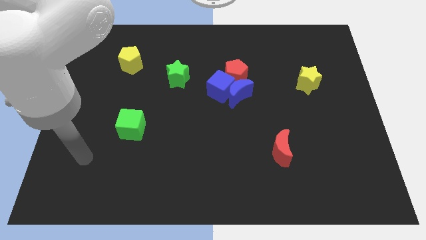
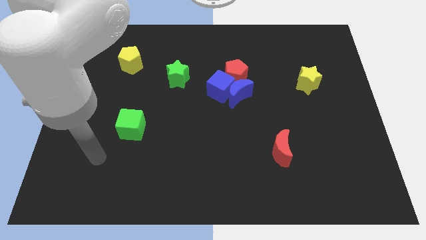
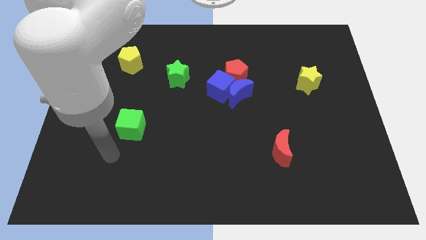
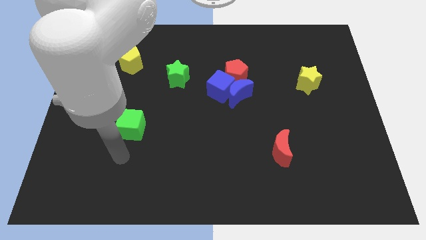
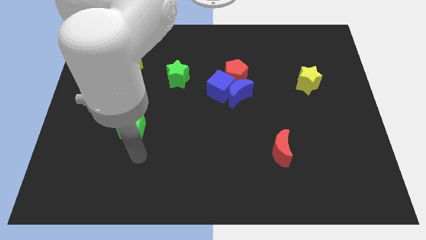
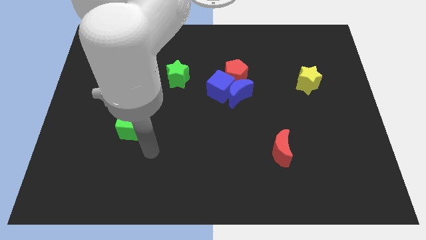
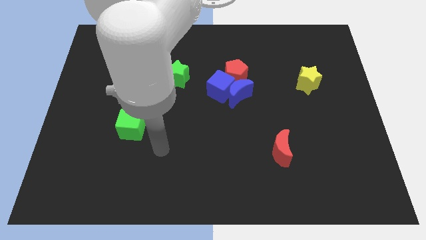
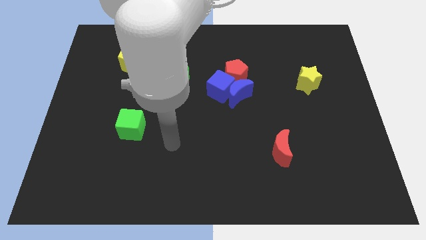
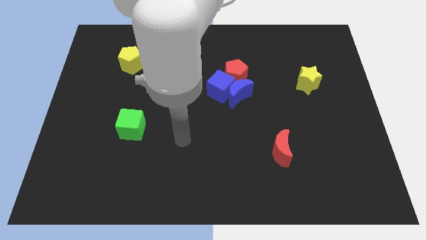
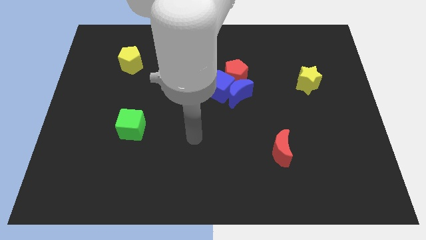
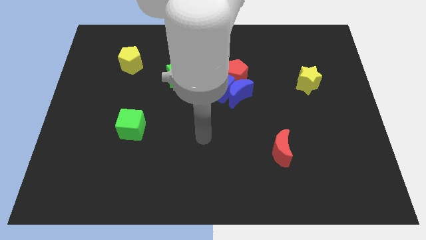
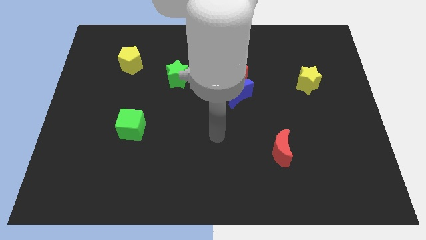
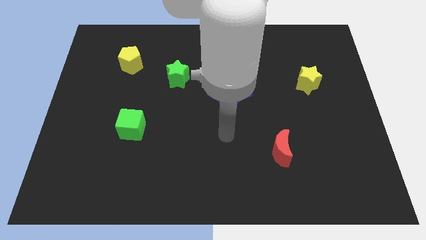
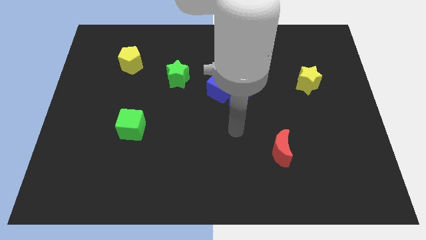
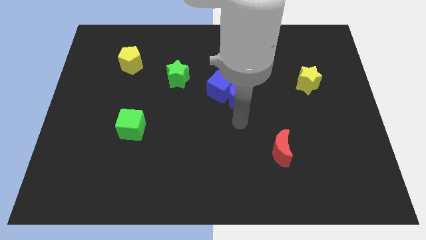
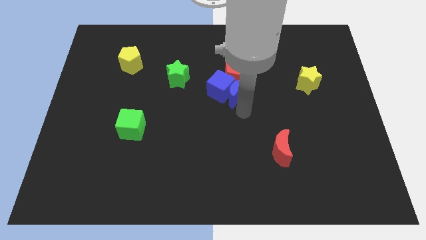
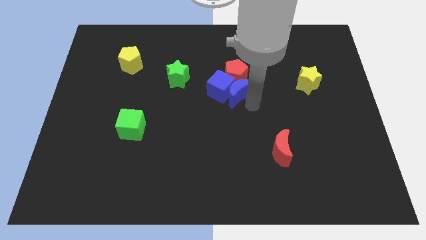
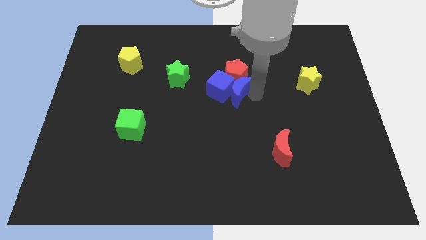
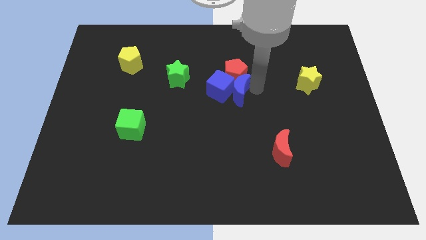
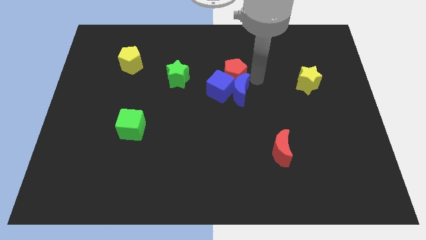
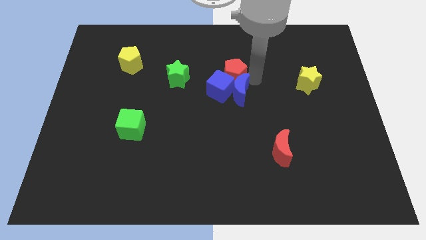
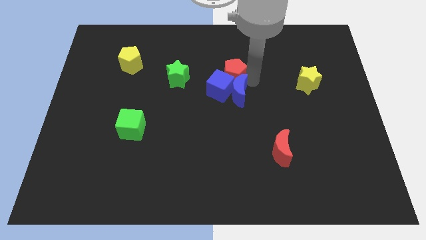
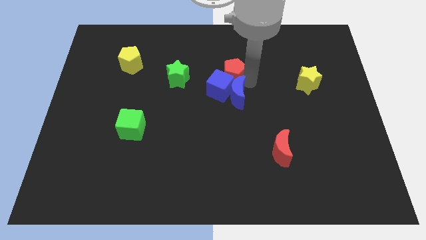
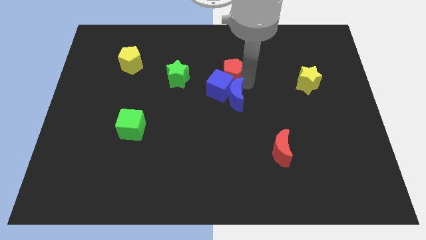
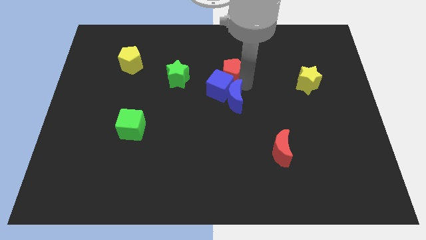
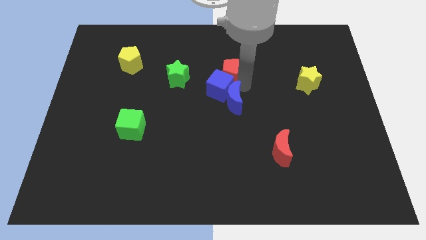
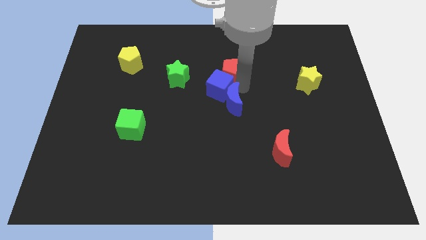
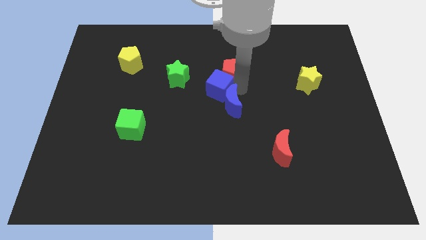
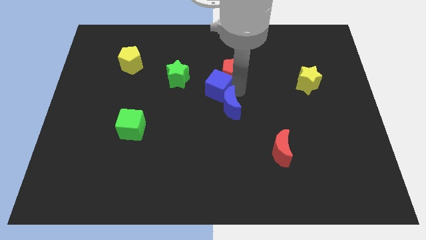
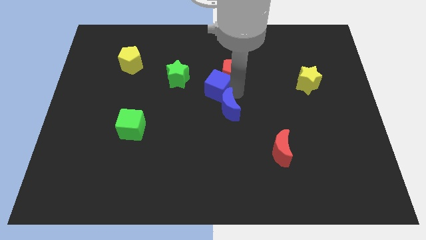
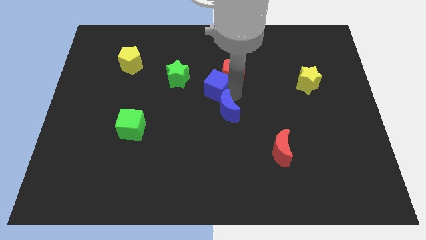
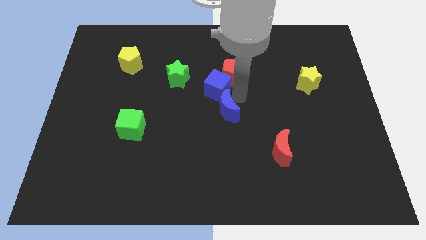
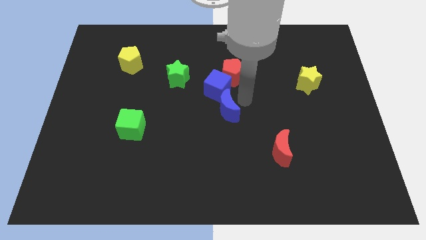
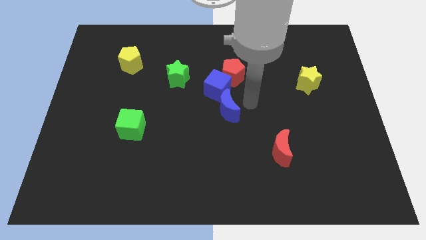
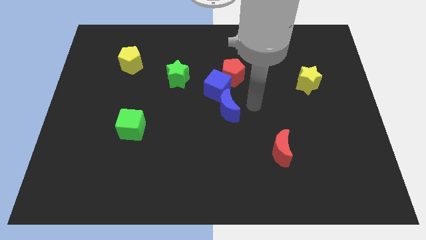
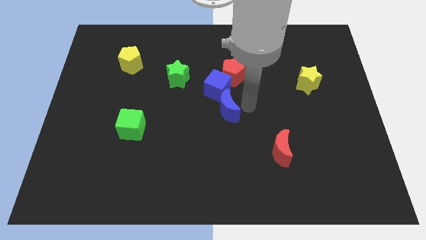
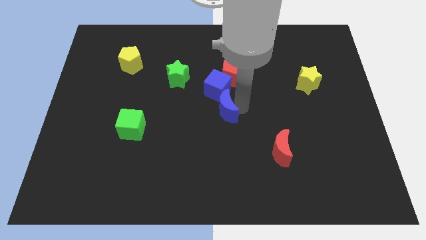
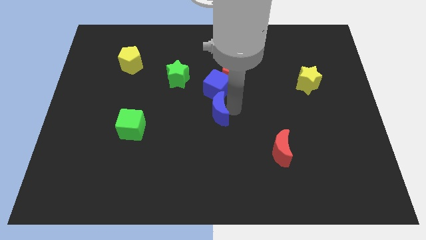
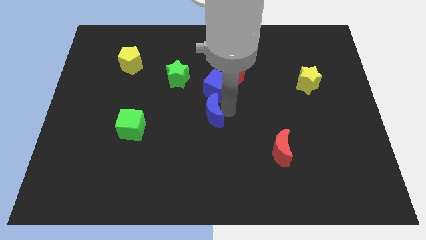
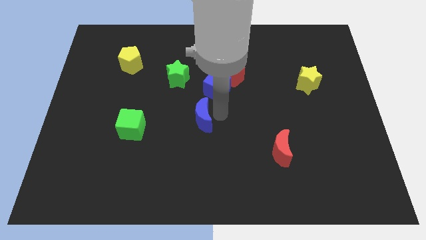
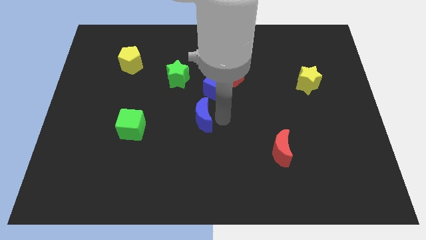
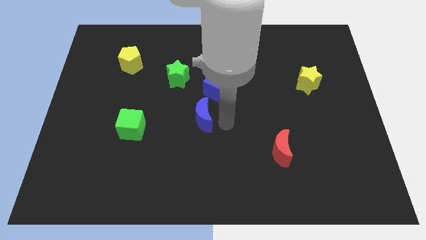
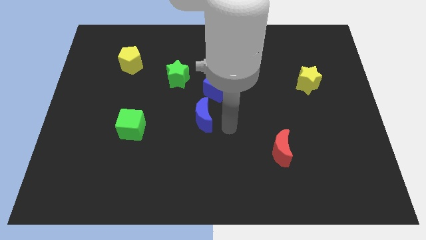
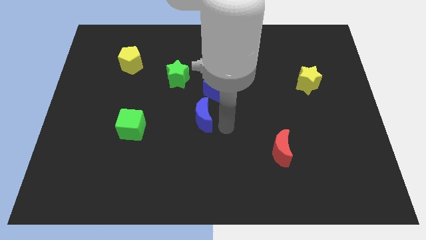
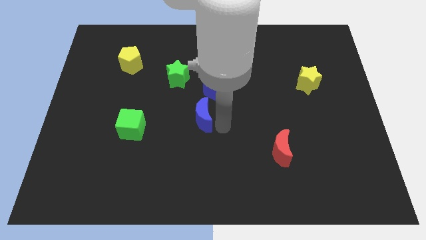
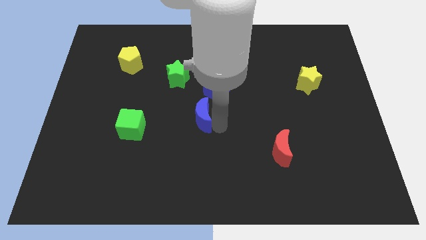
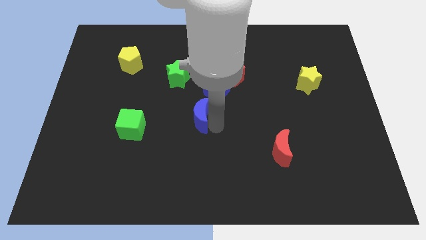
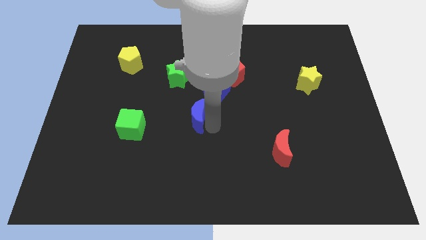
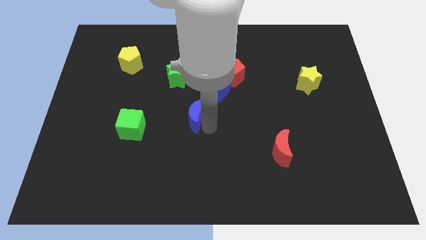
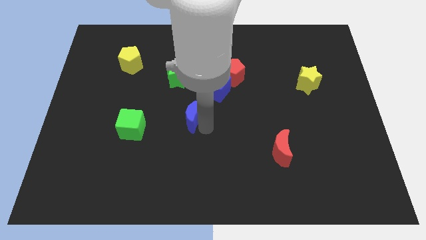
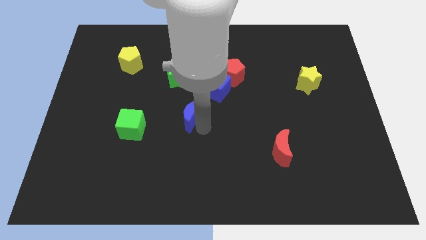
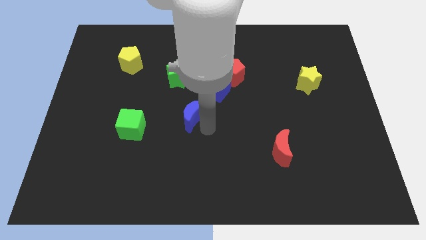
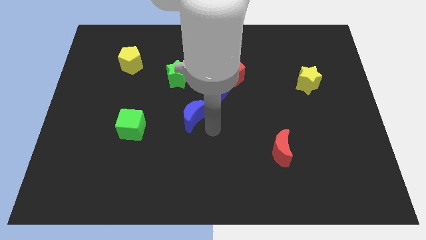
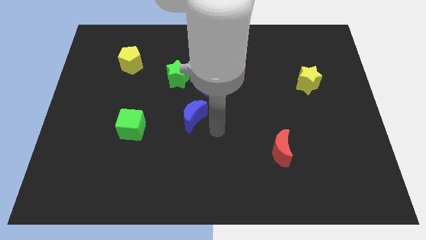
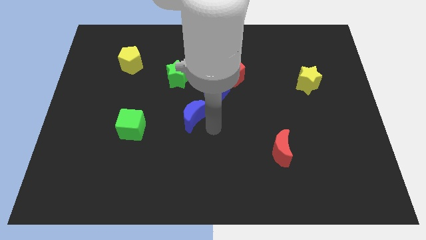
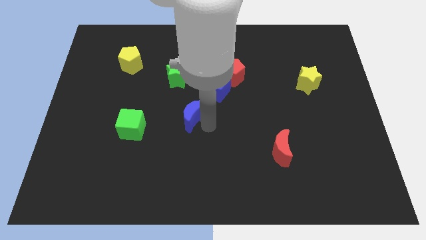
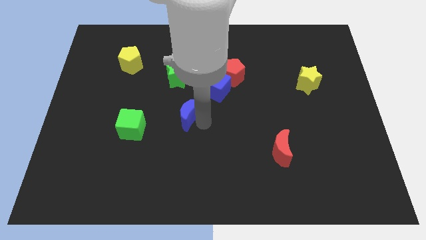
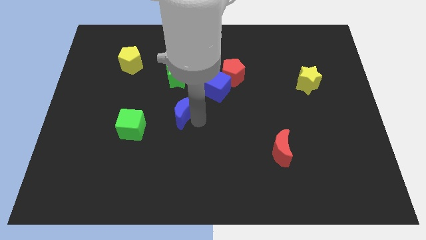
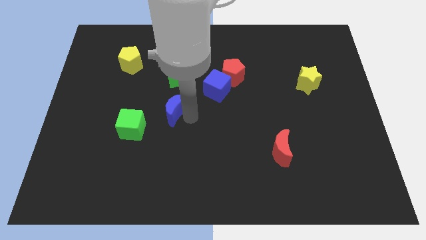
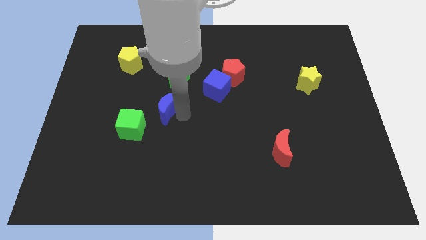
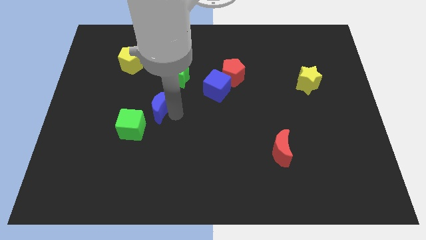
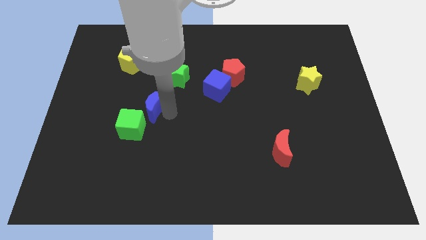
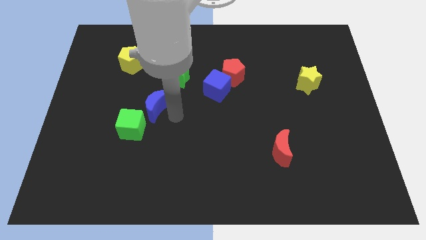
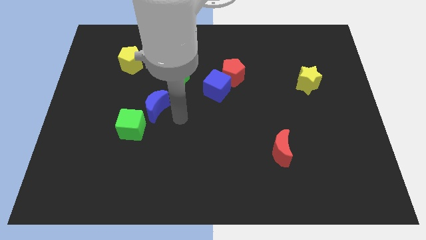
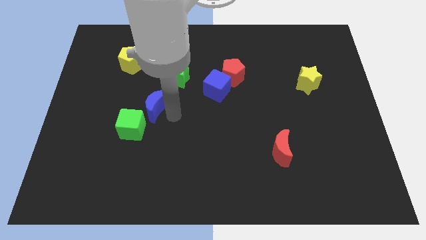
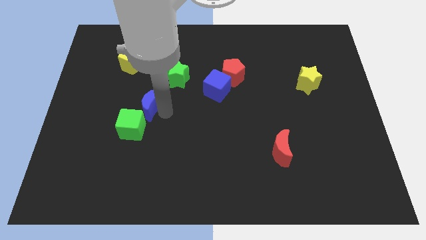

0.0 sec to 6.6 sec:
slide the blue moon left

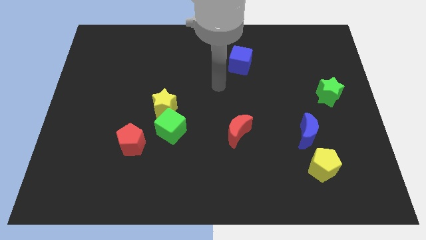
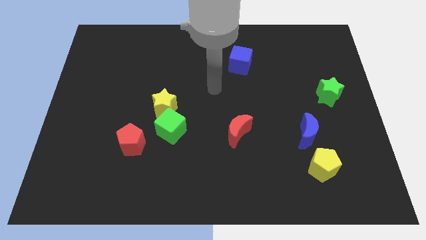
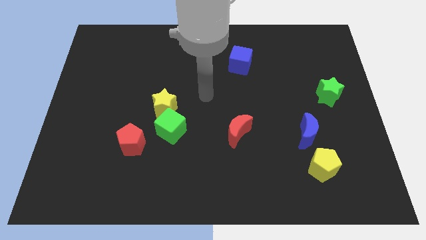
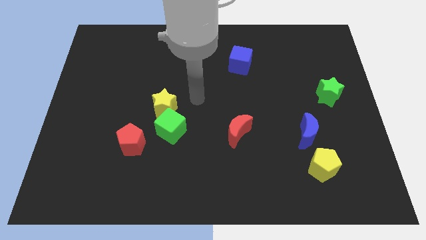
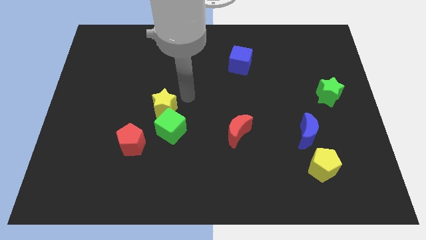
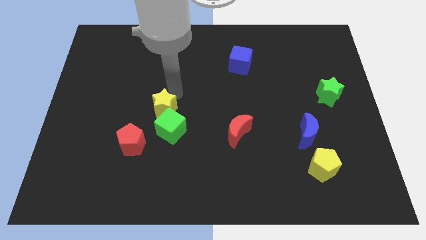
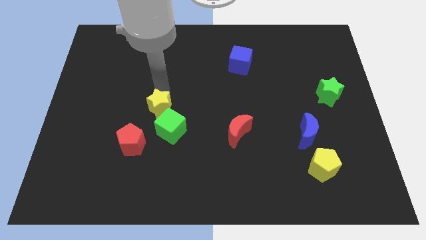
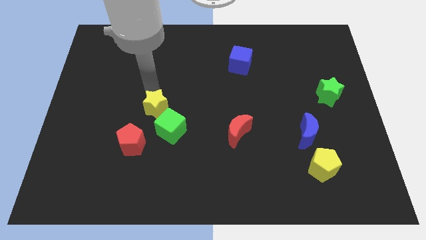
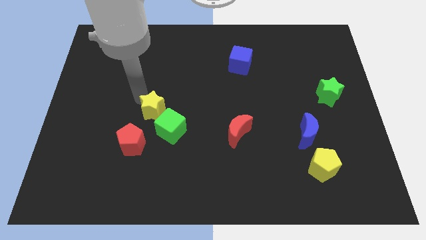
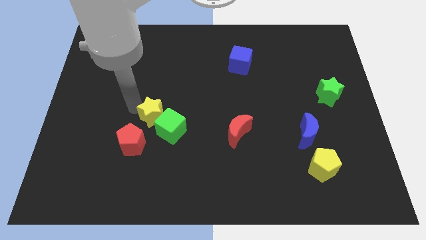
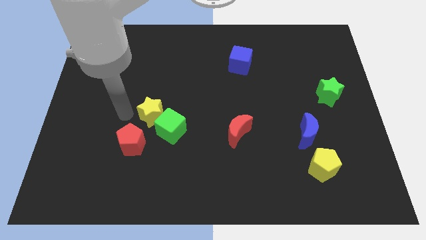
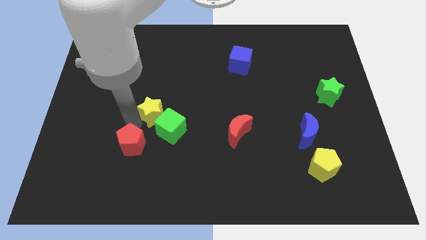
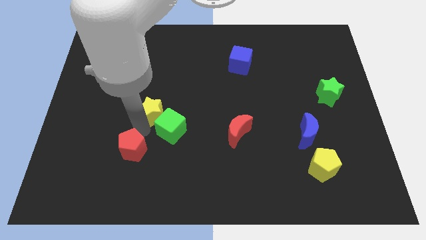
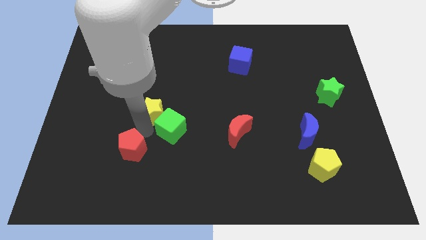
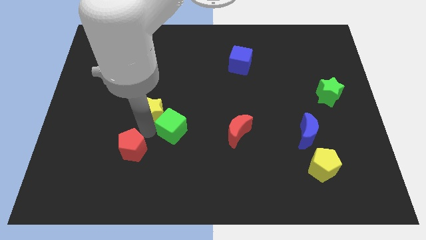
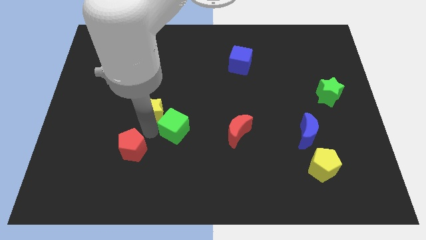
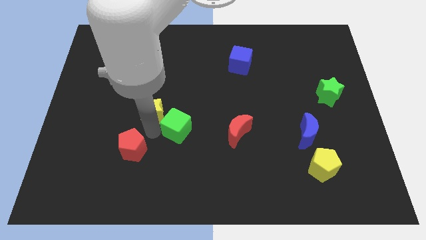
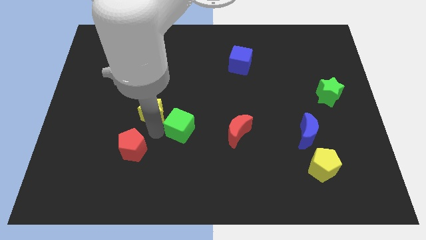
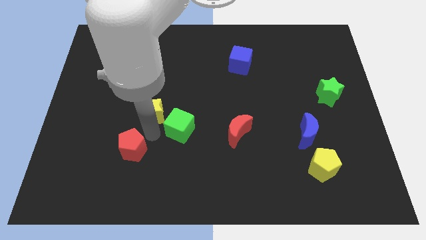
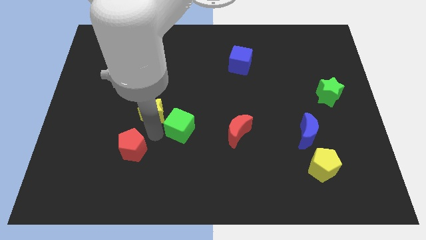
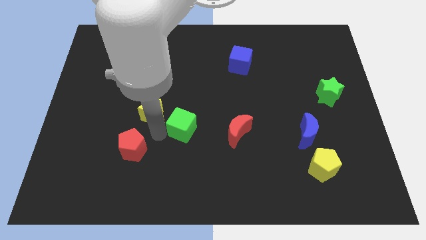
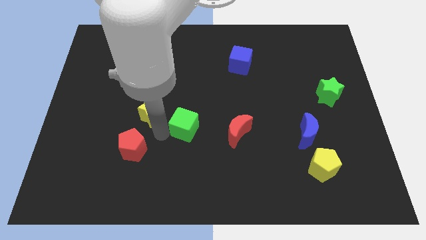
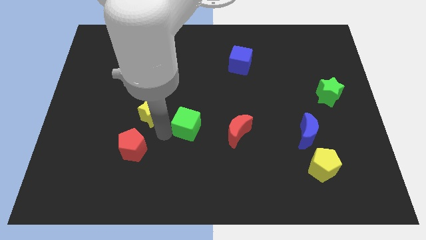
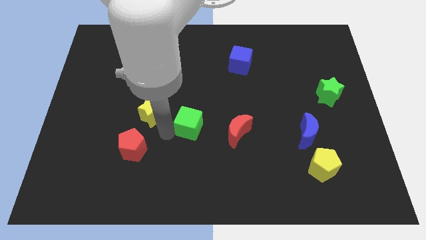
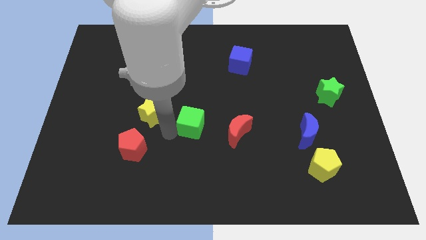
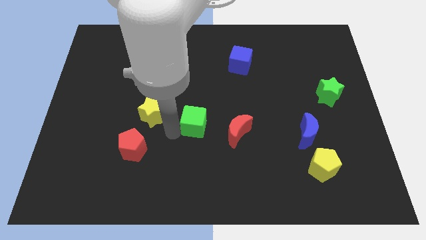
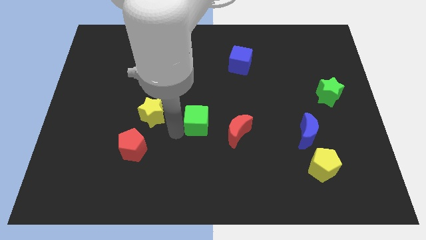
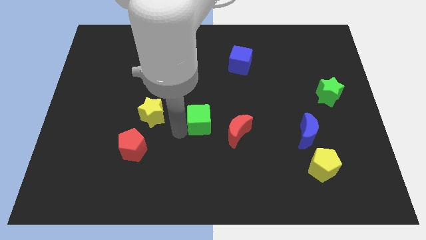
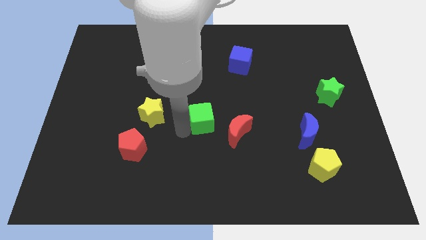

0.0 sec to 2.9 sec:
slightly slide the green cube to the right
